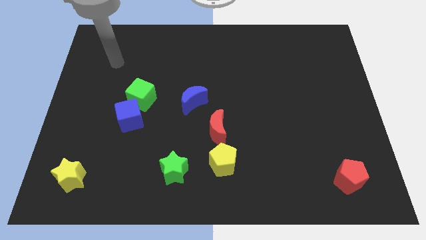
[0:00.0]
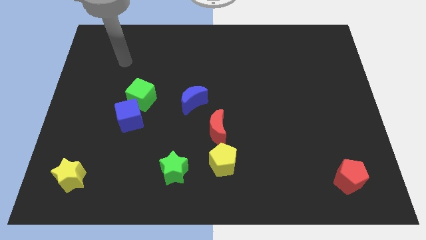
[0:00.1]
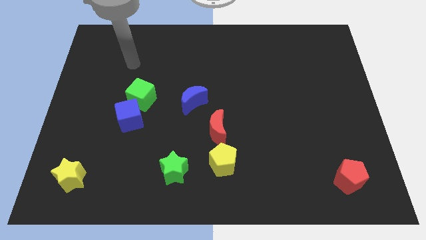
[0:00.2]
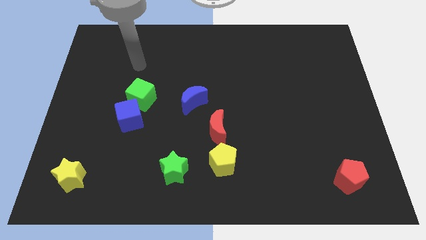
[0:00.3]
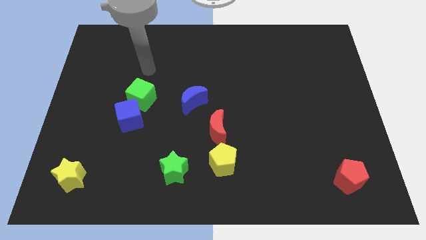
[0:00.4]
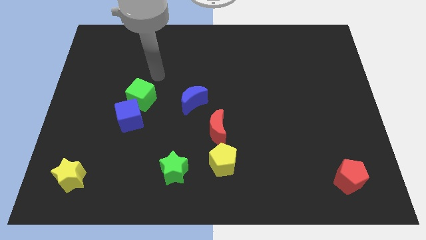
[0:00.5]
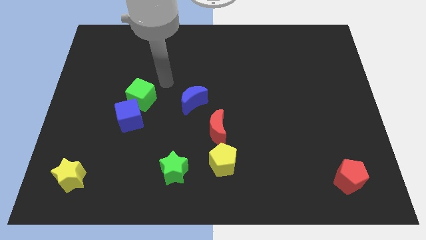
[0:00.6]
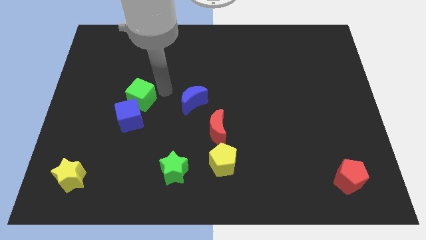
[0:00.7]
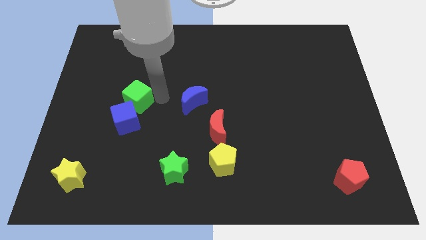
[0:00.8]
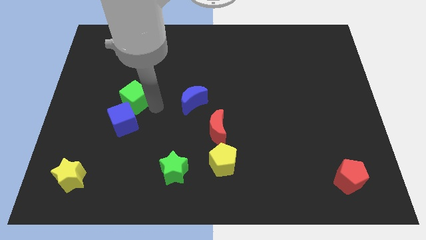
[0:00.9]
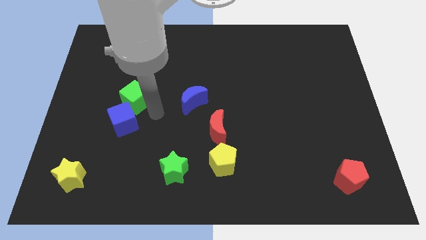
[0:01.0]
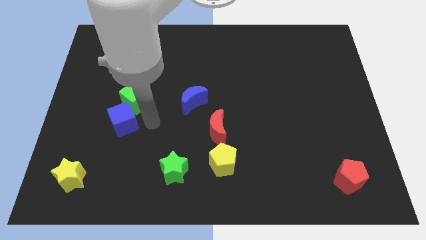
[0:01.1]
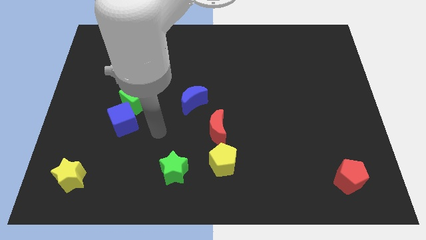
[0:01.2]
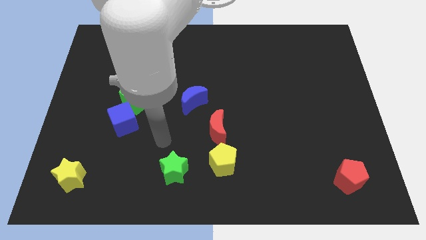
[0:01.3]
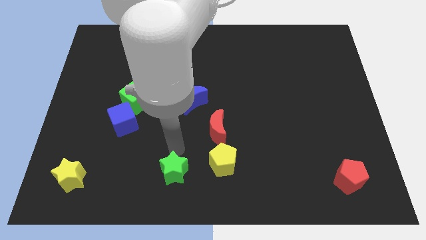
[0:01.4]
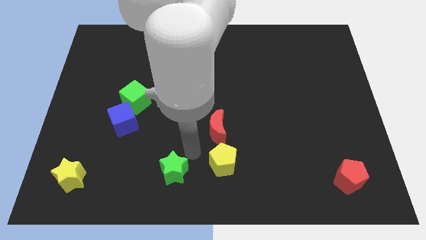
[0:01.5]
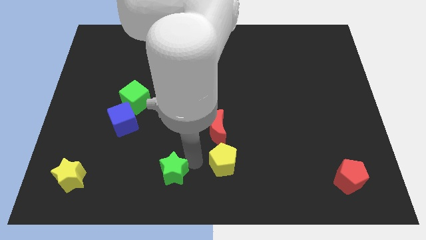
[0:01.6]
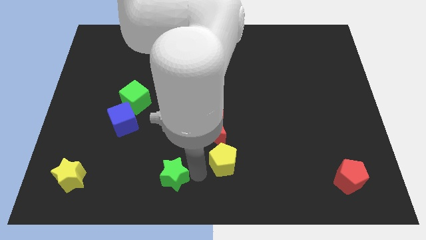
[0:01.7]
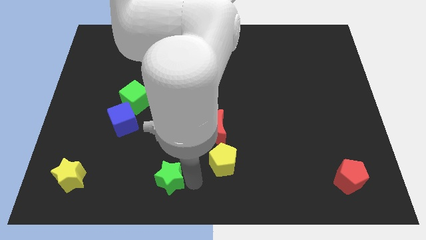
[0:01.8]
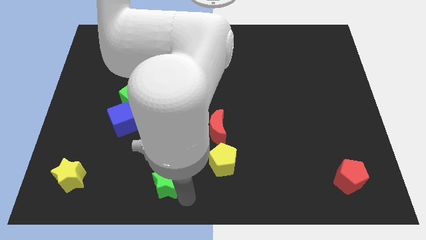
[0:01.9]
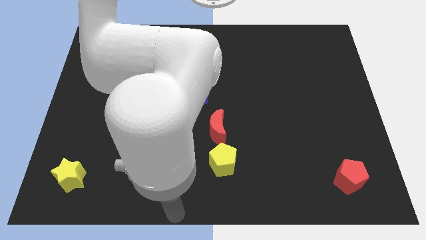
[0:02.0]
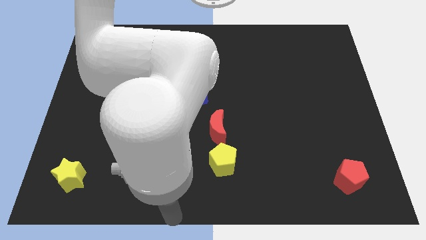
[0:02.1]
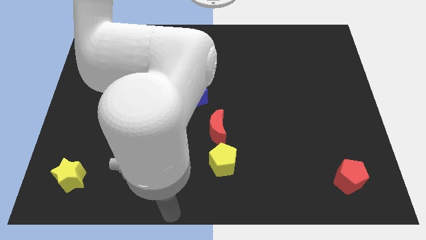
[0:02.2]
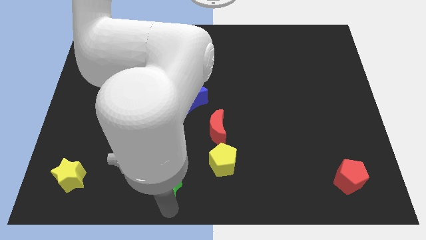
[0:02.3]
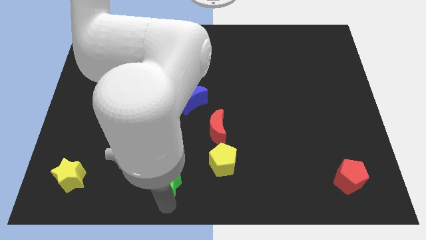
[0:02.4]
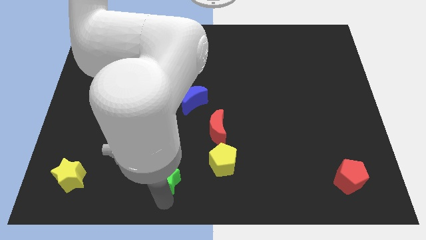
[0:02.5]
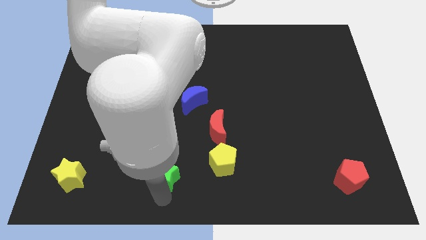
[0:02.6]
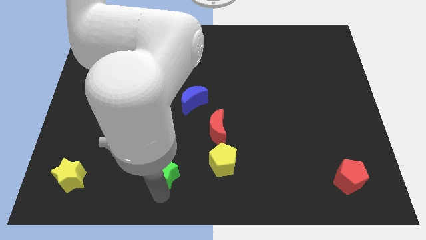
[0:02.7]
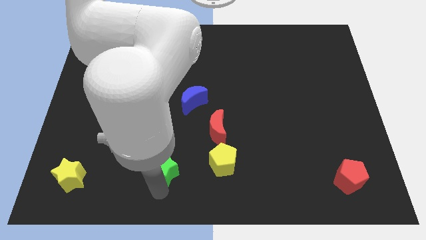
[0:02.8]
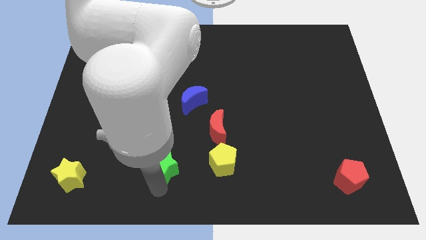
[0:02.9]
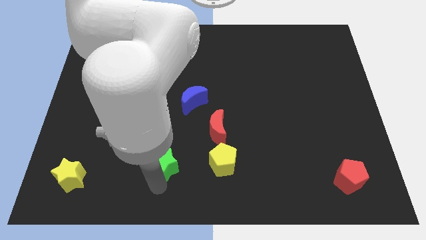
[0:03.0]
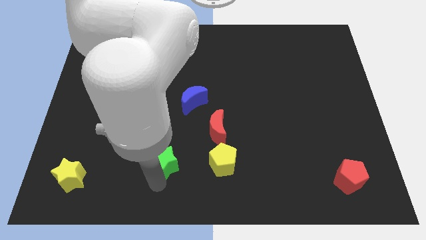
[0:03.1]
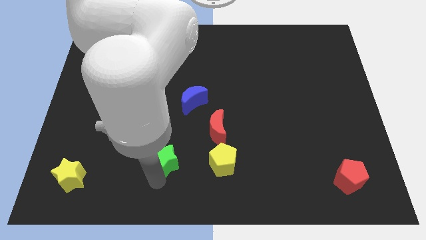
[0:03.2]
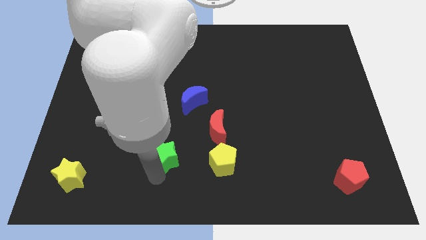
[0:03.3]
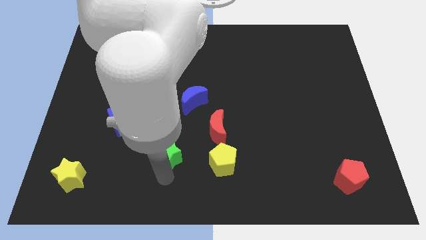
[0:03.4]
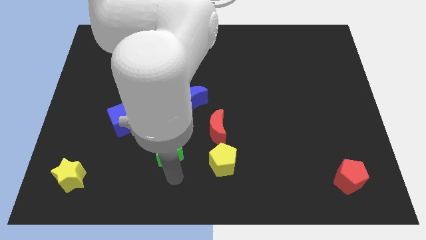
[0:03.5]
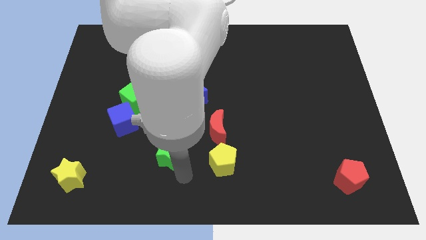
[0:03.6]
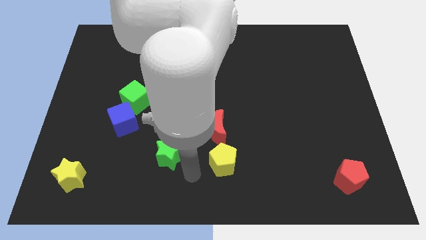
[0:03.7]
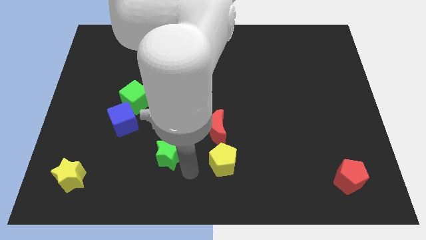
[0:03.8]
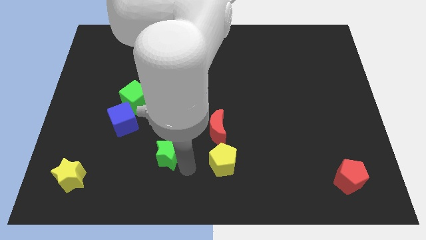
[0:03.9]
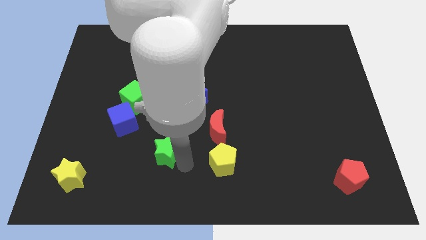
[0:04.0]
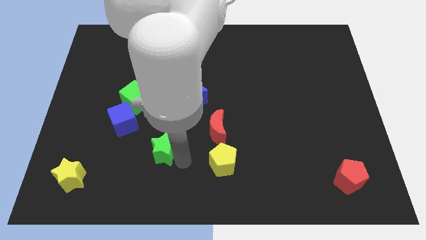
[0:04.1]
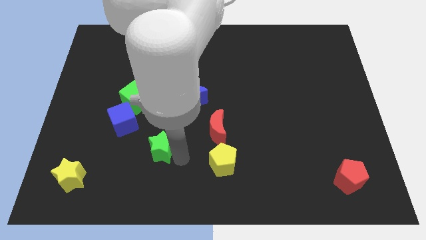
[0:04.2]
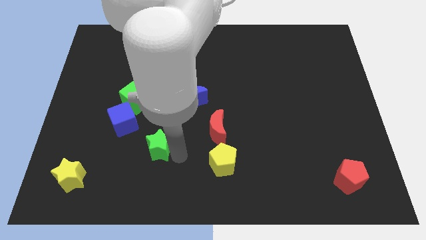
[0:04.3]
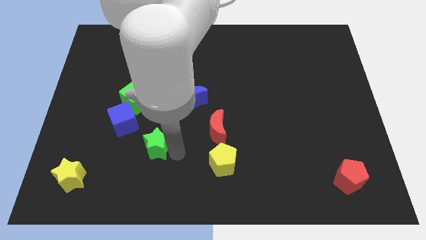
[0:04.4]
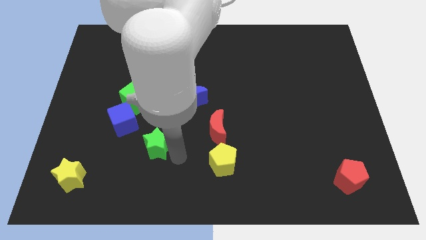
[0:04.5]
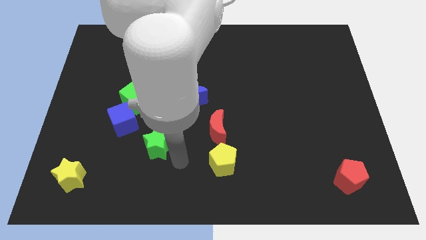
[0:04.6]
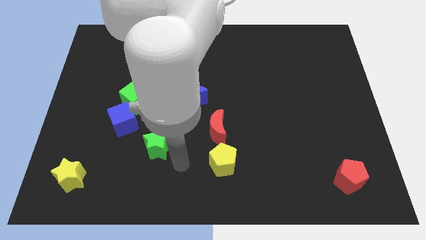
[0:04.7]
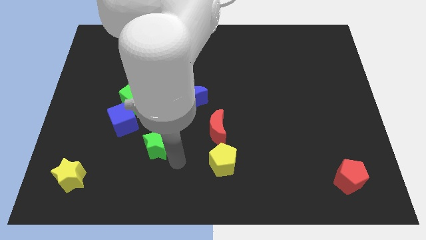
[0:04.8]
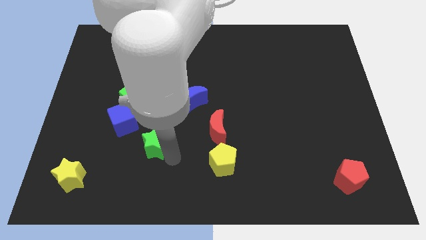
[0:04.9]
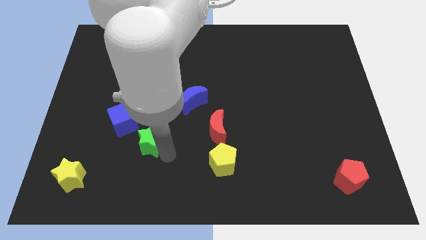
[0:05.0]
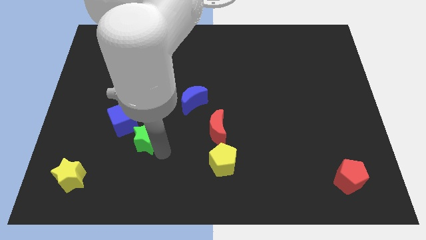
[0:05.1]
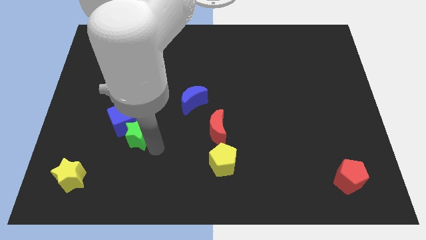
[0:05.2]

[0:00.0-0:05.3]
put the green star close to the blue cube

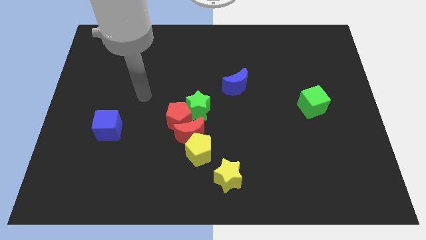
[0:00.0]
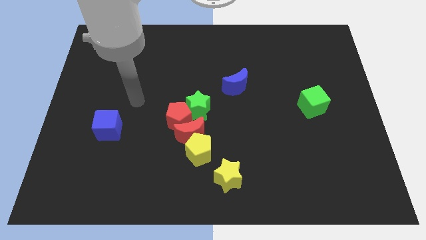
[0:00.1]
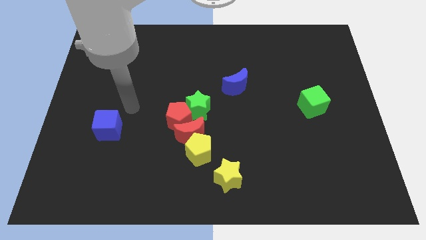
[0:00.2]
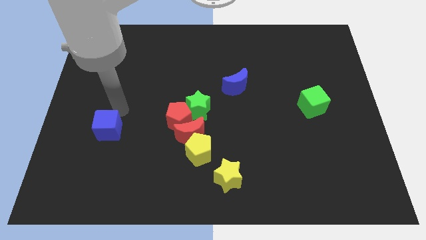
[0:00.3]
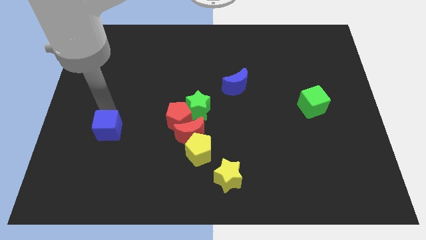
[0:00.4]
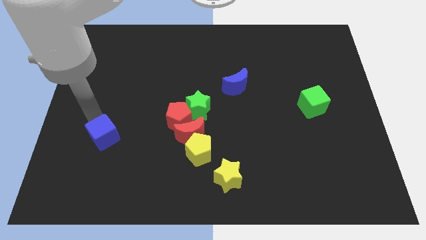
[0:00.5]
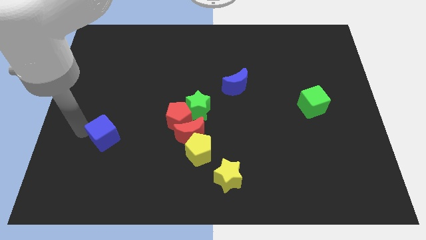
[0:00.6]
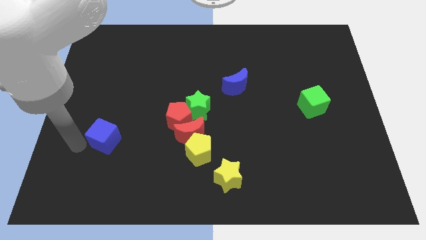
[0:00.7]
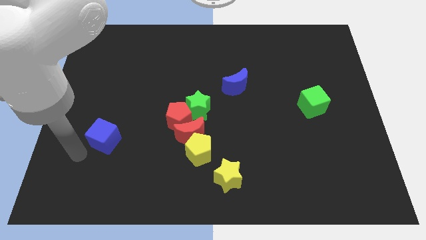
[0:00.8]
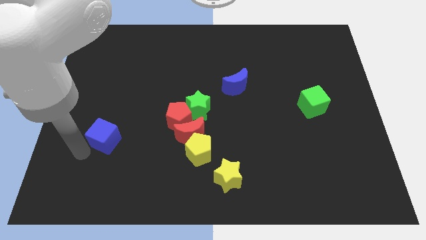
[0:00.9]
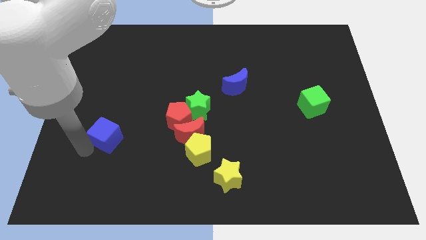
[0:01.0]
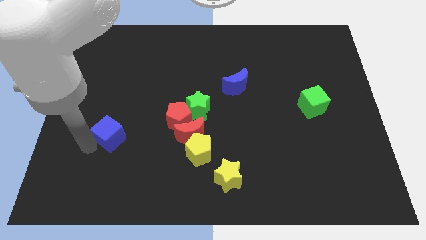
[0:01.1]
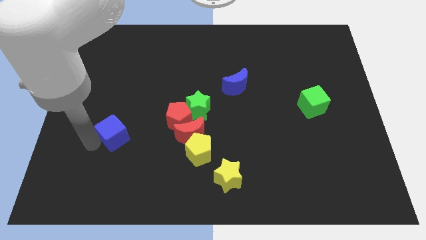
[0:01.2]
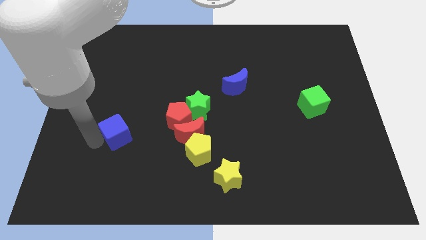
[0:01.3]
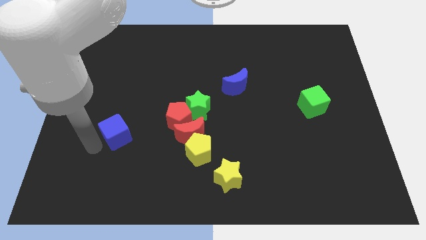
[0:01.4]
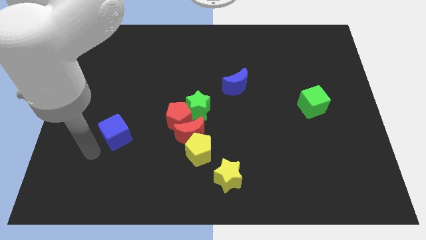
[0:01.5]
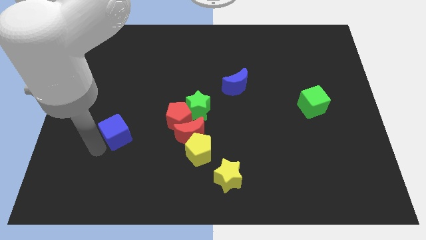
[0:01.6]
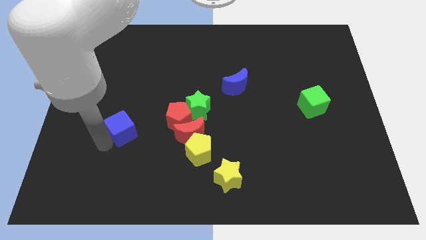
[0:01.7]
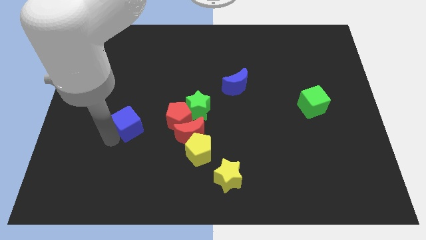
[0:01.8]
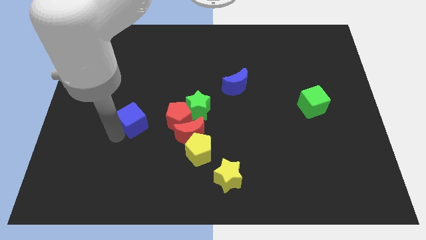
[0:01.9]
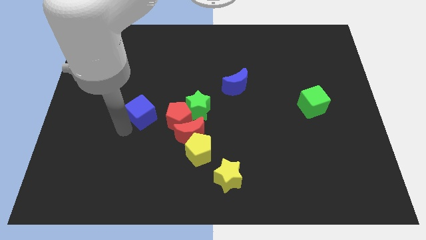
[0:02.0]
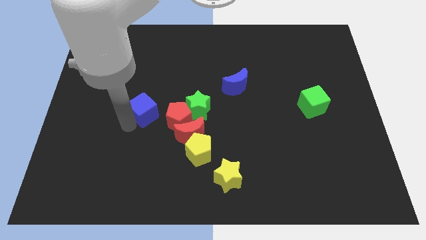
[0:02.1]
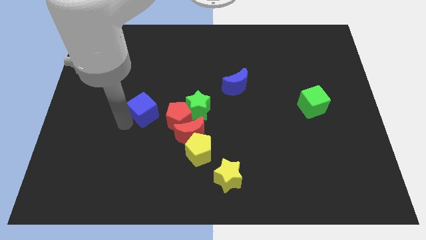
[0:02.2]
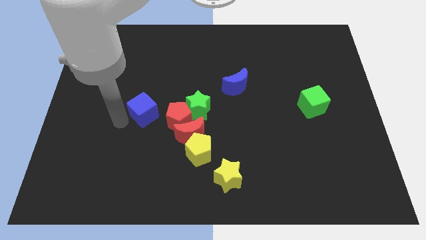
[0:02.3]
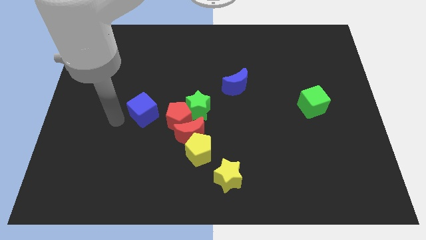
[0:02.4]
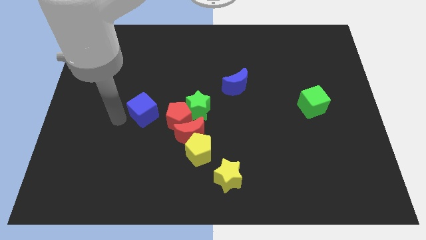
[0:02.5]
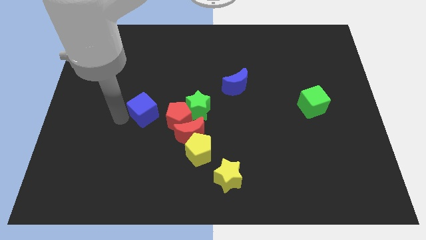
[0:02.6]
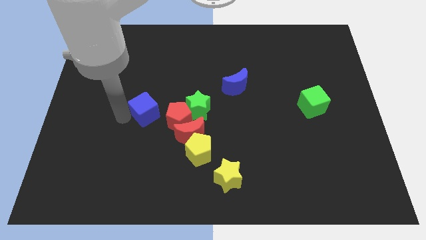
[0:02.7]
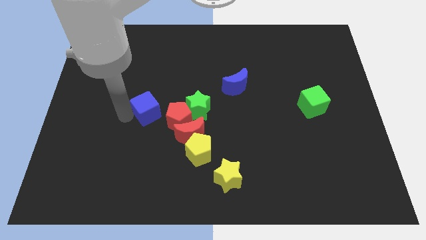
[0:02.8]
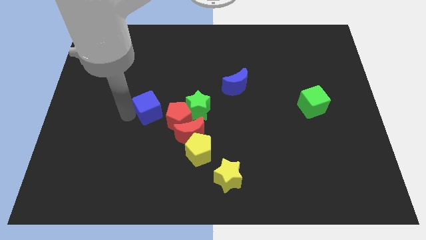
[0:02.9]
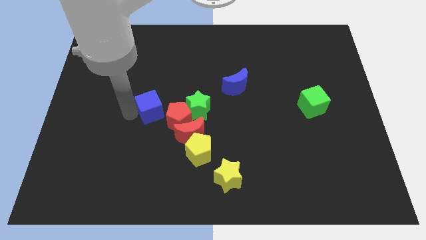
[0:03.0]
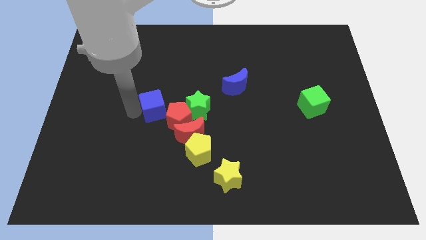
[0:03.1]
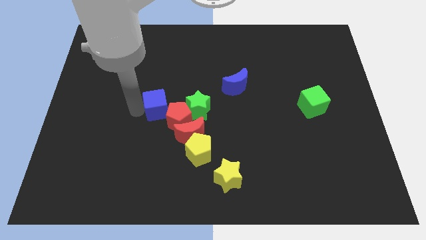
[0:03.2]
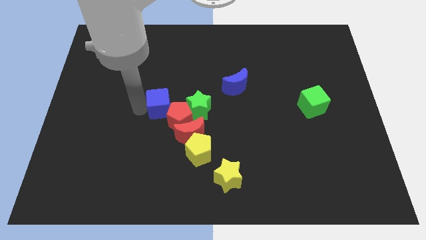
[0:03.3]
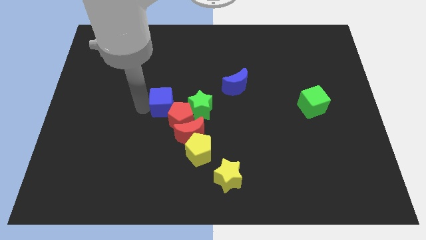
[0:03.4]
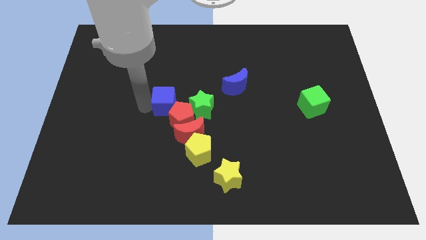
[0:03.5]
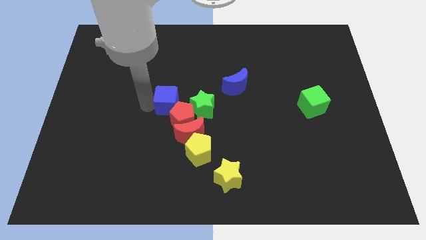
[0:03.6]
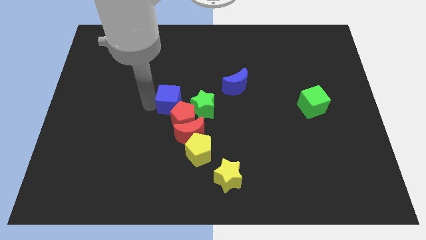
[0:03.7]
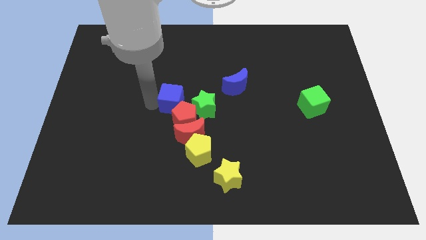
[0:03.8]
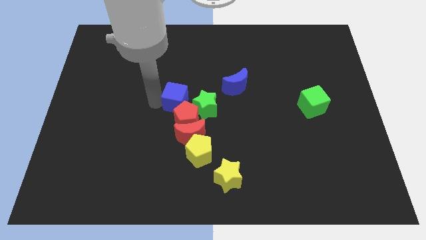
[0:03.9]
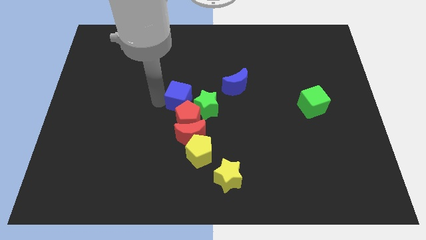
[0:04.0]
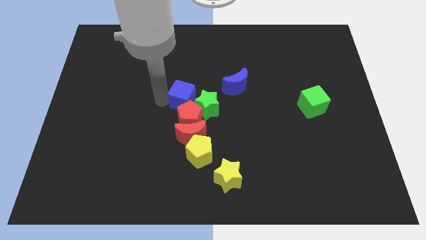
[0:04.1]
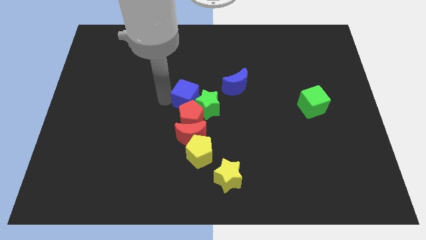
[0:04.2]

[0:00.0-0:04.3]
slide the blue cube to the green star
